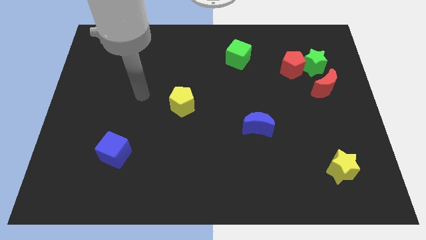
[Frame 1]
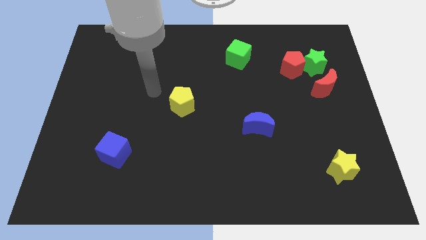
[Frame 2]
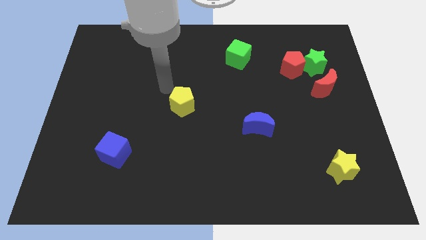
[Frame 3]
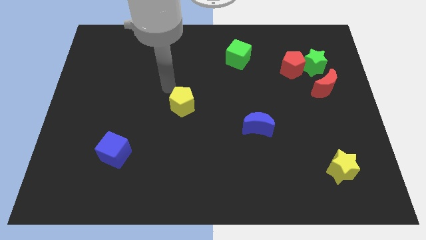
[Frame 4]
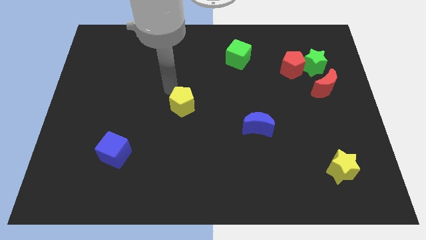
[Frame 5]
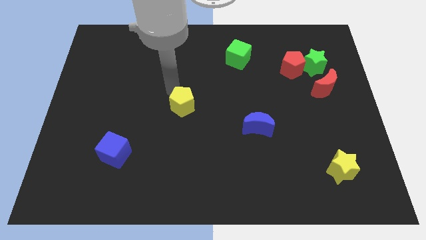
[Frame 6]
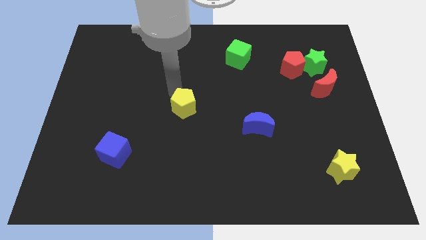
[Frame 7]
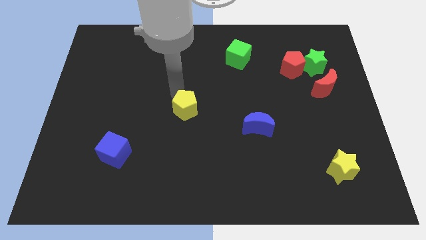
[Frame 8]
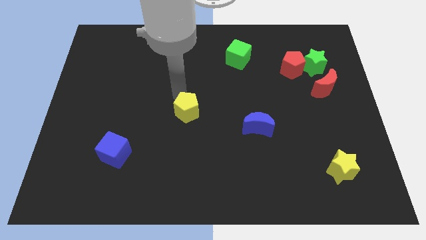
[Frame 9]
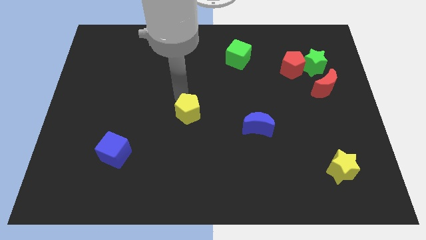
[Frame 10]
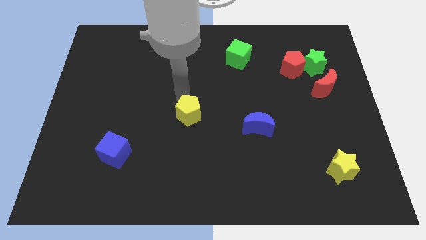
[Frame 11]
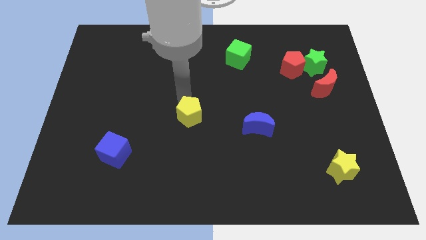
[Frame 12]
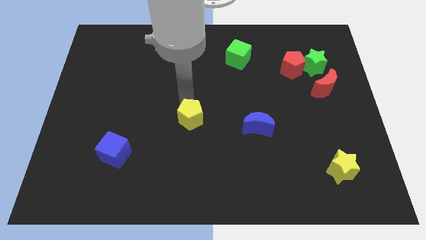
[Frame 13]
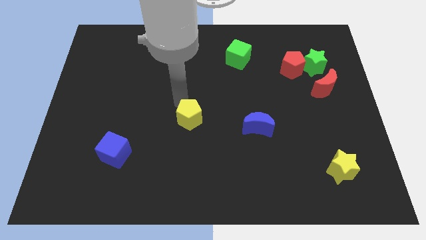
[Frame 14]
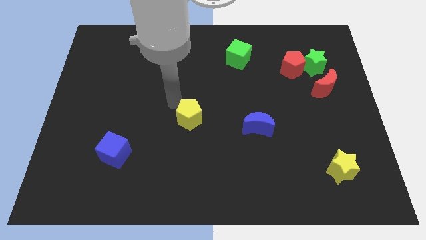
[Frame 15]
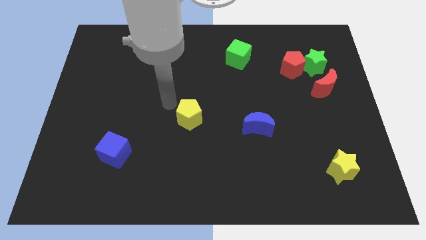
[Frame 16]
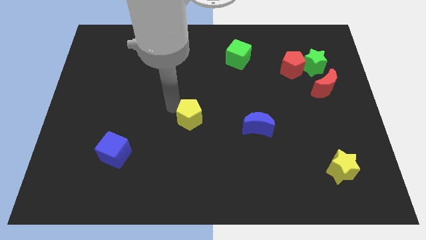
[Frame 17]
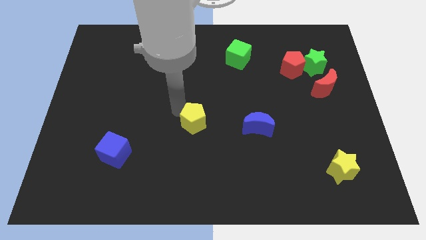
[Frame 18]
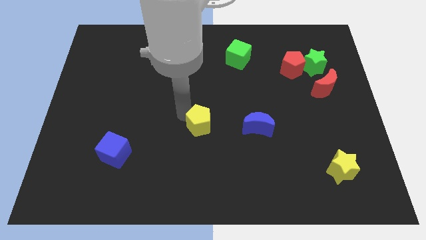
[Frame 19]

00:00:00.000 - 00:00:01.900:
move the yellow pentagon down and to the right diagonally a little

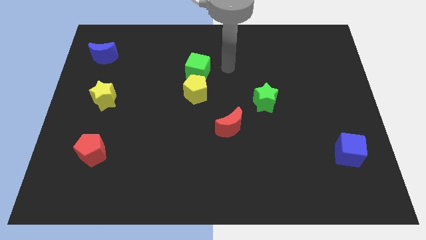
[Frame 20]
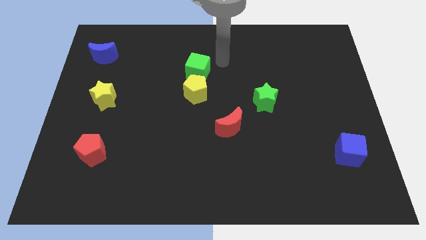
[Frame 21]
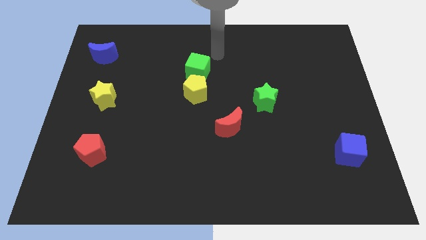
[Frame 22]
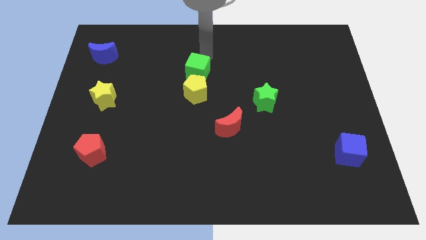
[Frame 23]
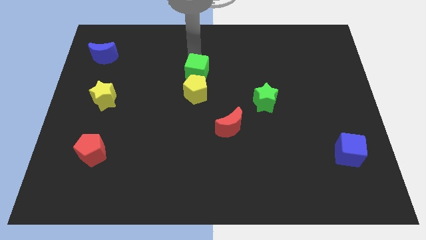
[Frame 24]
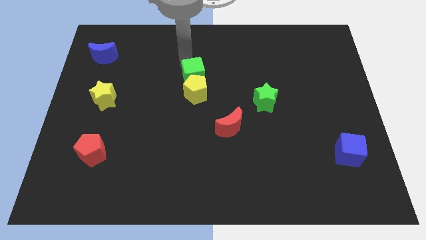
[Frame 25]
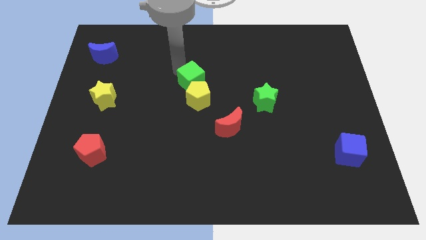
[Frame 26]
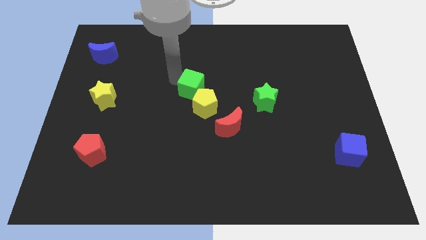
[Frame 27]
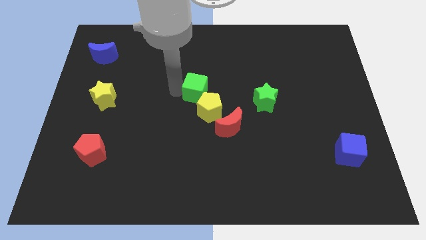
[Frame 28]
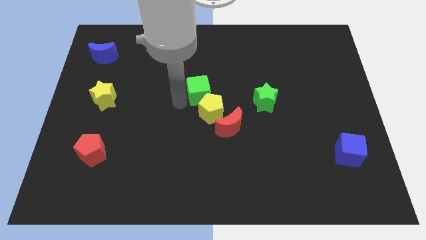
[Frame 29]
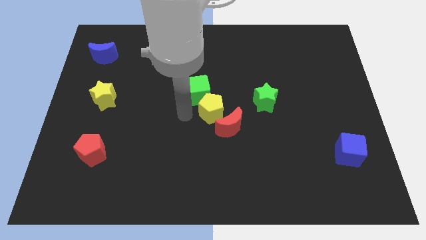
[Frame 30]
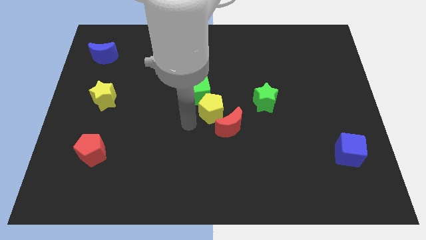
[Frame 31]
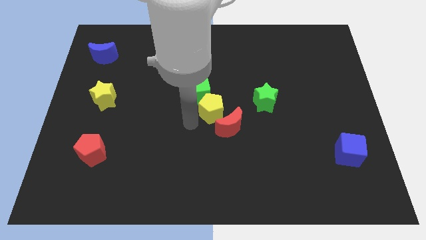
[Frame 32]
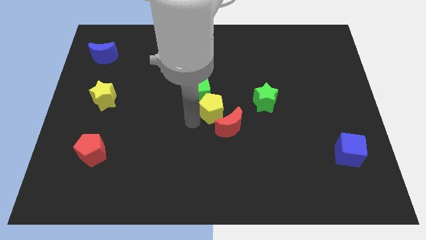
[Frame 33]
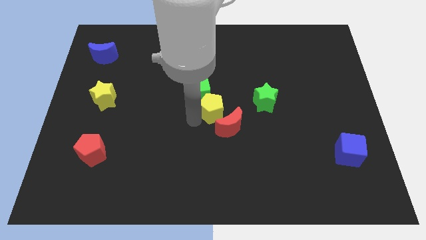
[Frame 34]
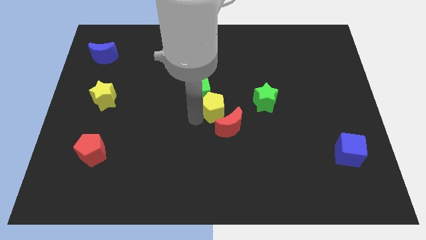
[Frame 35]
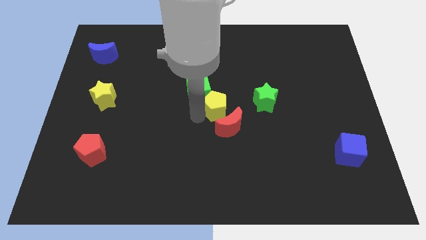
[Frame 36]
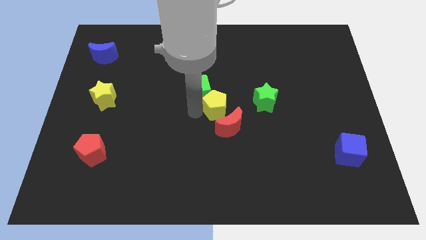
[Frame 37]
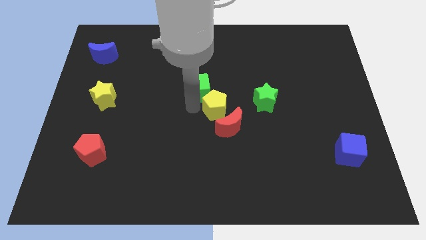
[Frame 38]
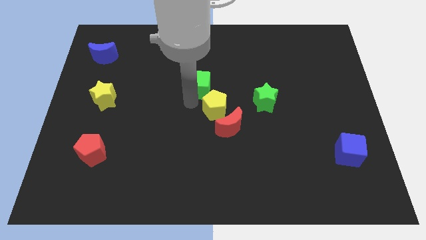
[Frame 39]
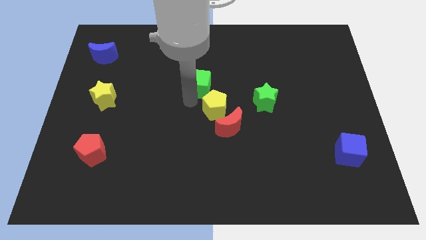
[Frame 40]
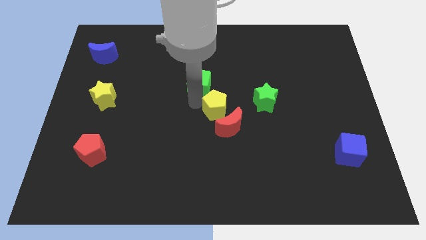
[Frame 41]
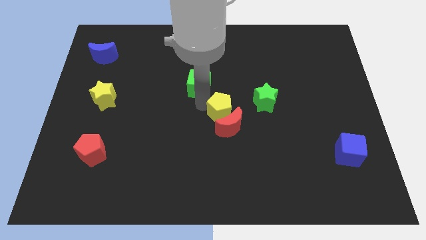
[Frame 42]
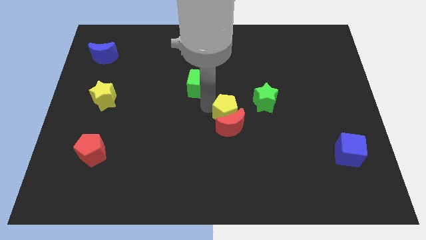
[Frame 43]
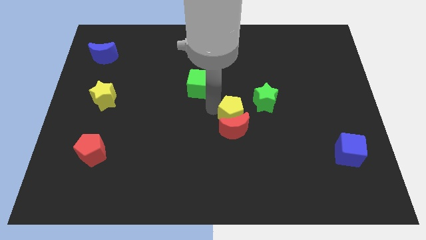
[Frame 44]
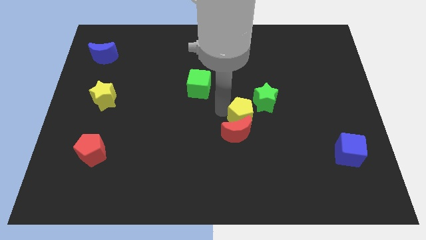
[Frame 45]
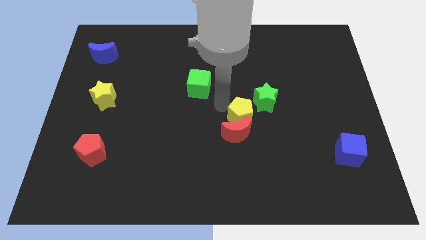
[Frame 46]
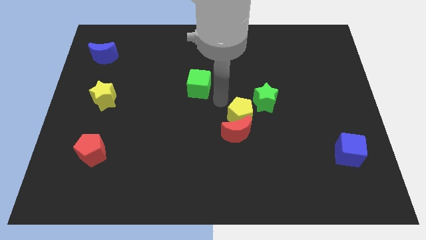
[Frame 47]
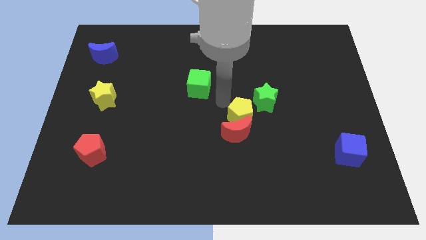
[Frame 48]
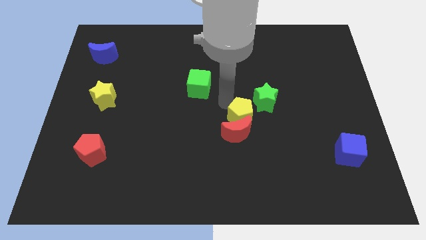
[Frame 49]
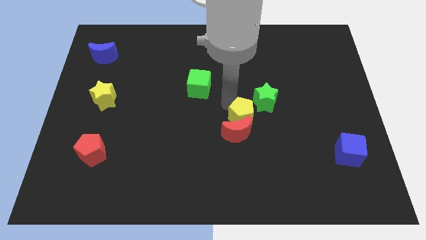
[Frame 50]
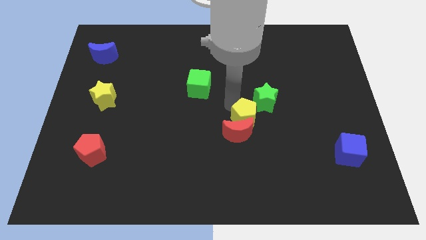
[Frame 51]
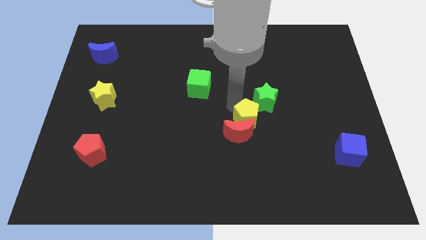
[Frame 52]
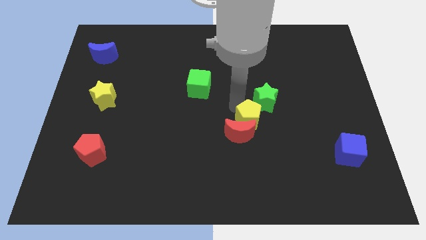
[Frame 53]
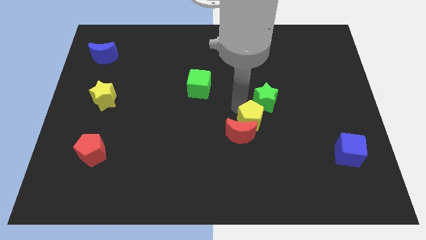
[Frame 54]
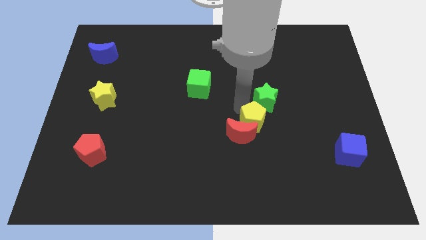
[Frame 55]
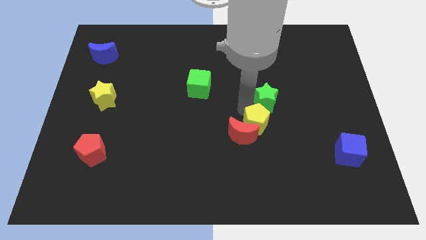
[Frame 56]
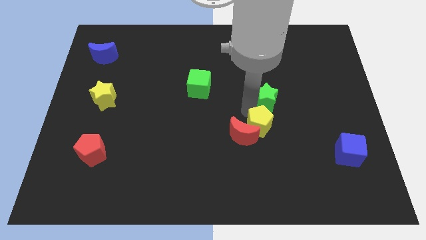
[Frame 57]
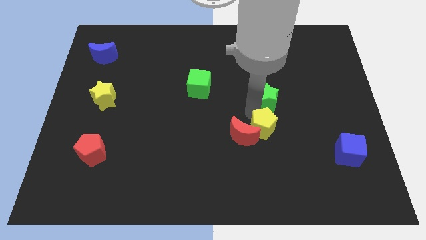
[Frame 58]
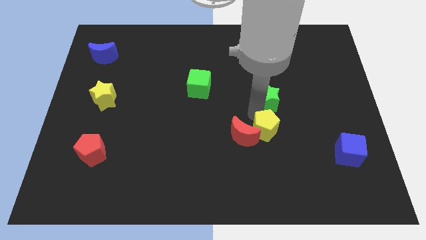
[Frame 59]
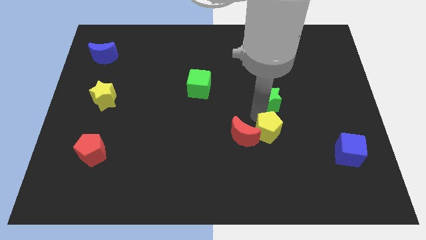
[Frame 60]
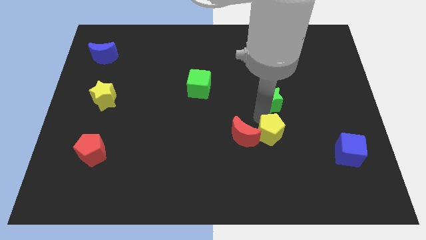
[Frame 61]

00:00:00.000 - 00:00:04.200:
slide the yellow pentagon diagonally down and right

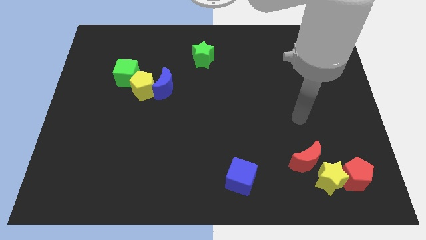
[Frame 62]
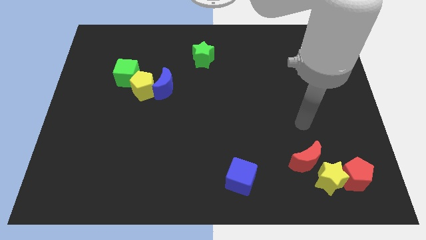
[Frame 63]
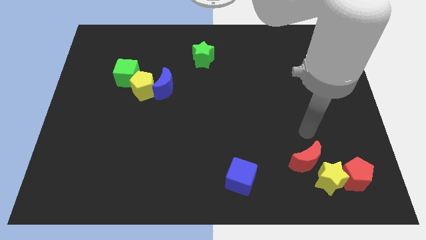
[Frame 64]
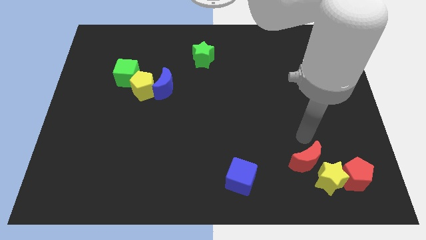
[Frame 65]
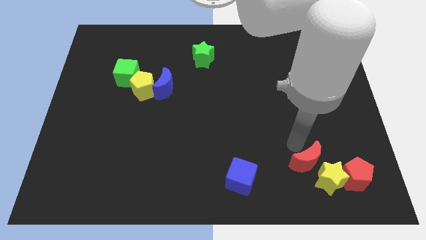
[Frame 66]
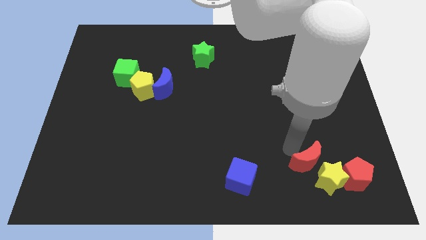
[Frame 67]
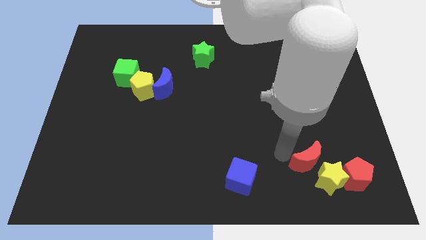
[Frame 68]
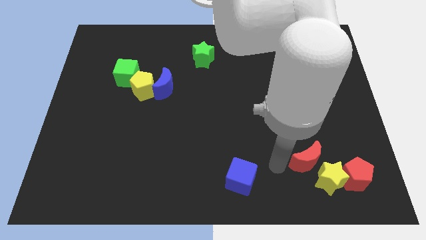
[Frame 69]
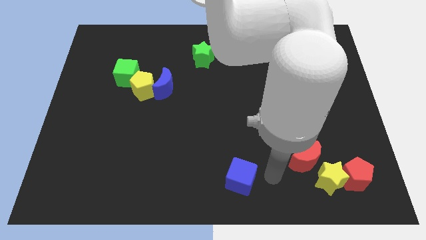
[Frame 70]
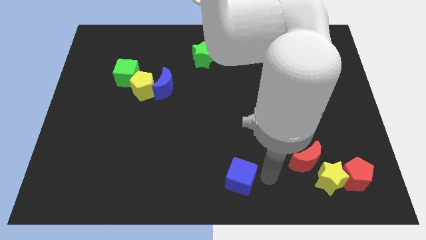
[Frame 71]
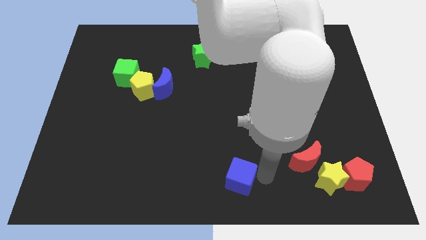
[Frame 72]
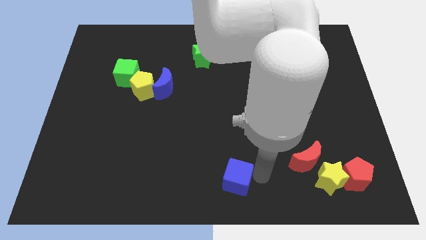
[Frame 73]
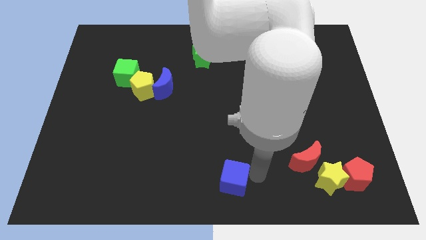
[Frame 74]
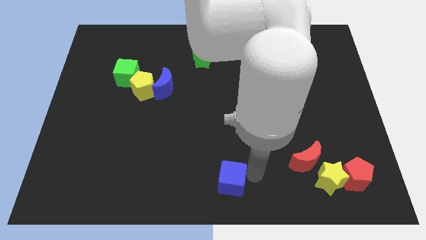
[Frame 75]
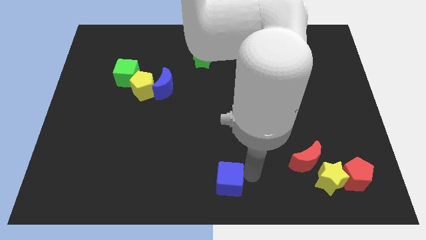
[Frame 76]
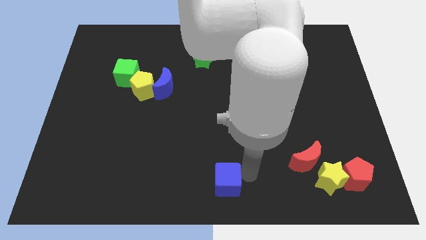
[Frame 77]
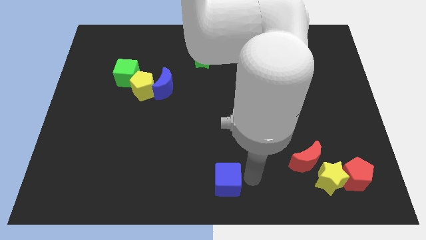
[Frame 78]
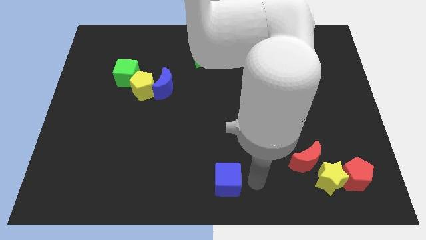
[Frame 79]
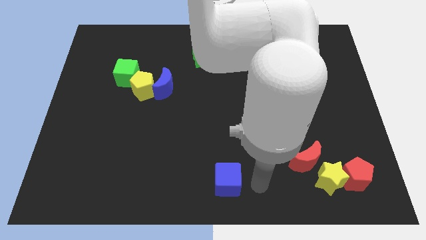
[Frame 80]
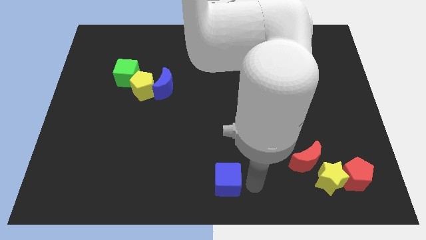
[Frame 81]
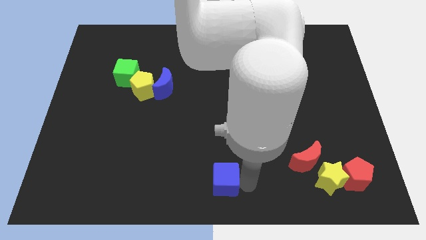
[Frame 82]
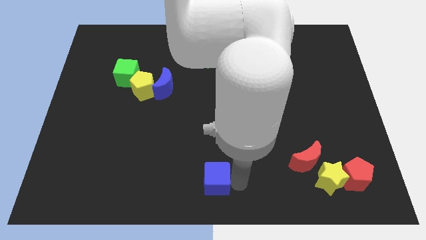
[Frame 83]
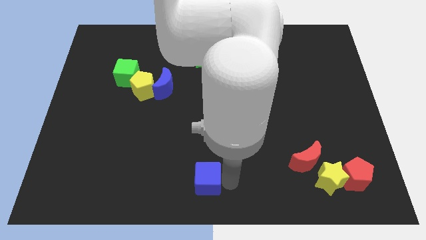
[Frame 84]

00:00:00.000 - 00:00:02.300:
slide the blue cube to the left slightly
